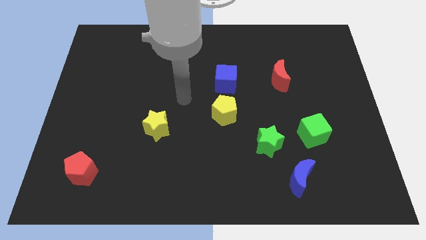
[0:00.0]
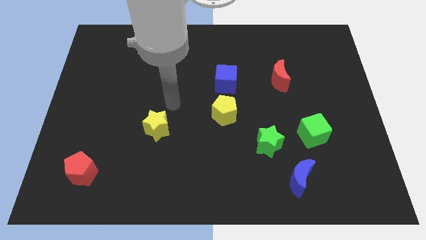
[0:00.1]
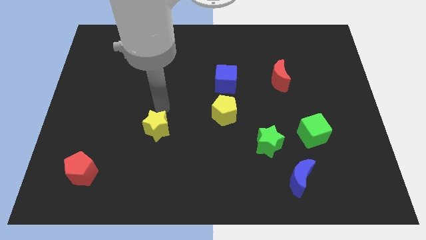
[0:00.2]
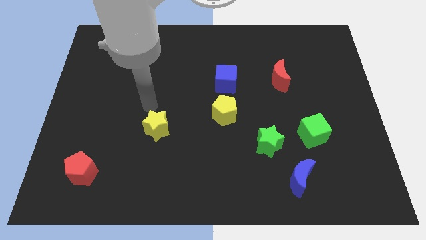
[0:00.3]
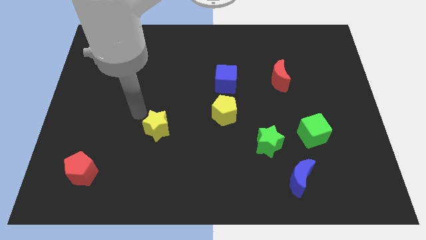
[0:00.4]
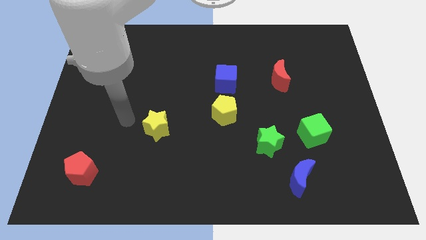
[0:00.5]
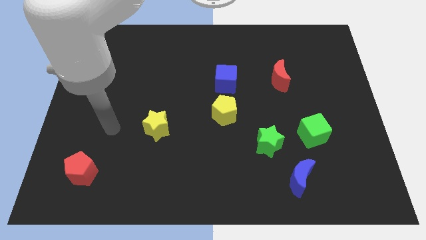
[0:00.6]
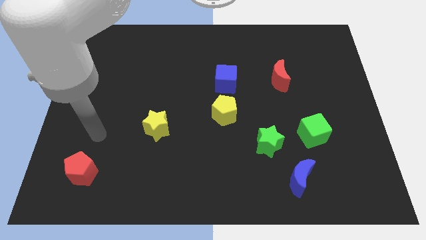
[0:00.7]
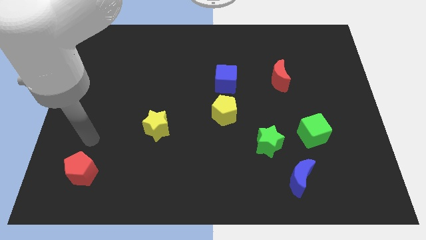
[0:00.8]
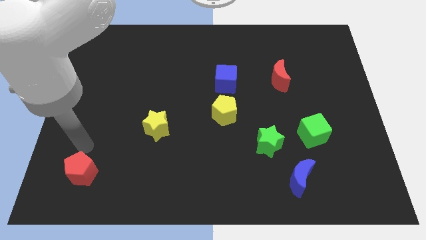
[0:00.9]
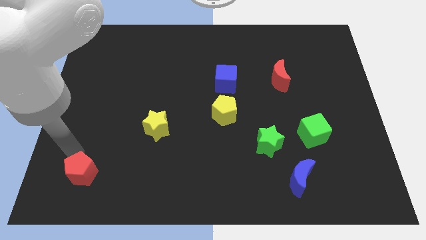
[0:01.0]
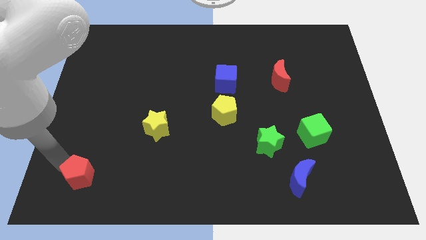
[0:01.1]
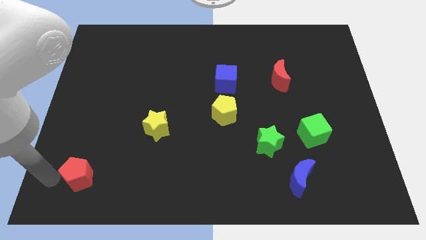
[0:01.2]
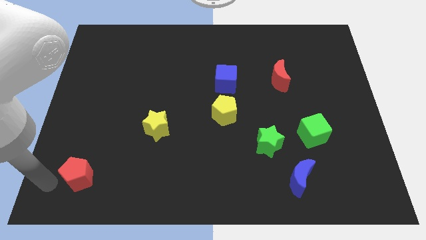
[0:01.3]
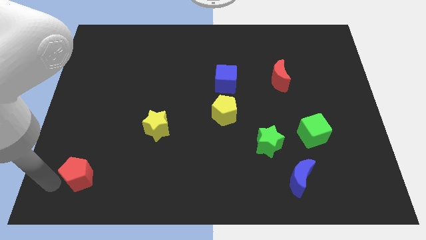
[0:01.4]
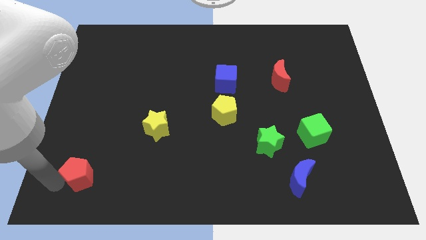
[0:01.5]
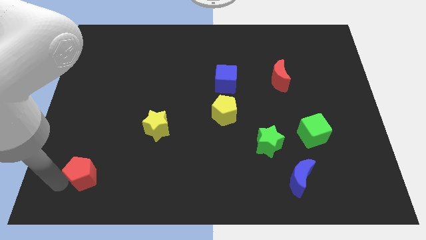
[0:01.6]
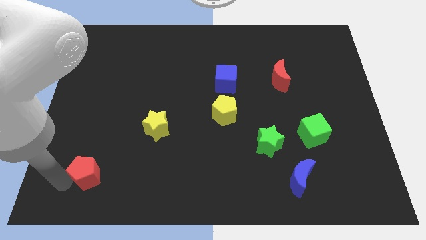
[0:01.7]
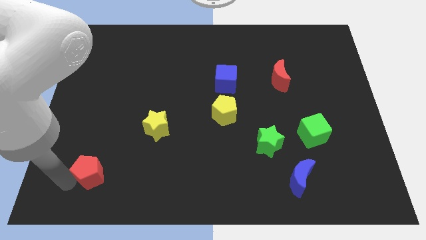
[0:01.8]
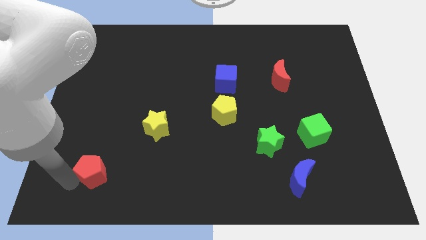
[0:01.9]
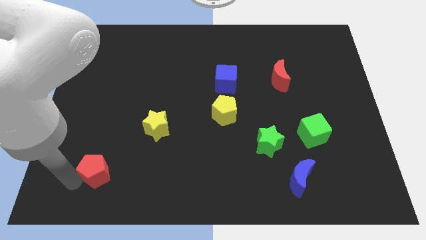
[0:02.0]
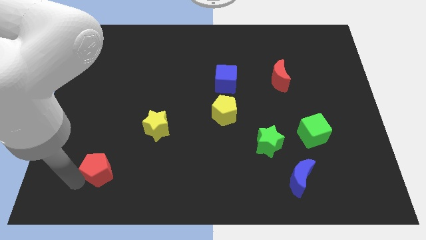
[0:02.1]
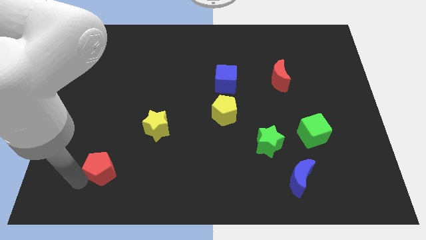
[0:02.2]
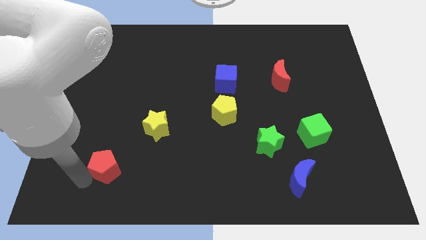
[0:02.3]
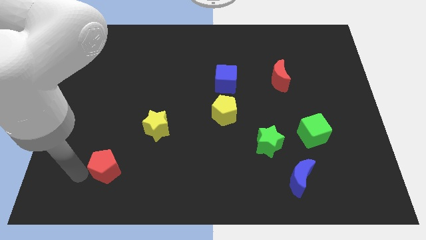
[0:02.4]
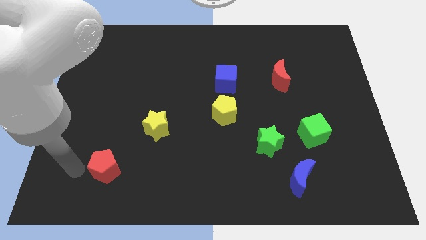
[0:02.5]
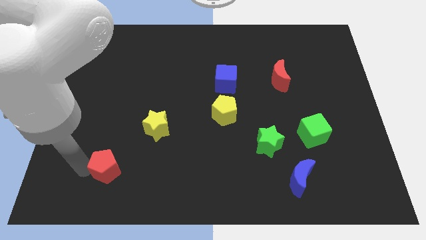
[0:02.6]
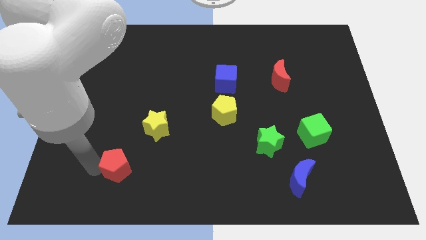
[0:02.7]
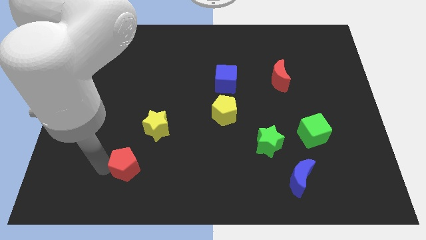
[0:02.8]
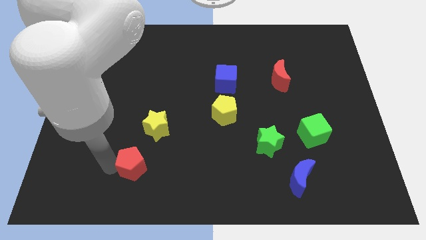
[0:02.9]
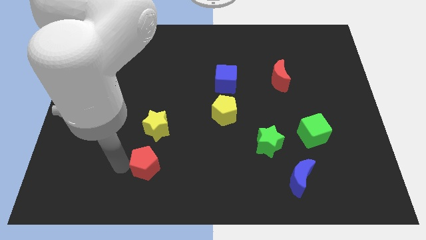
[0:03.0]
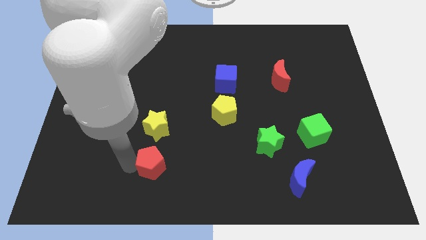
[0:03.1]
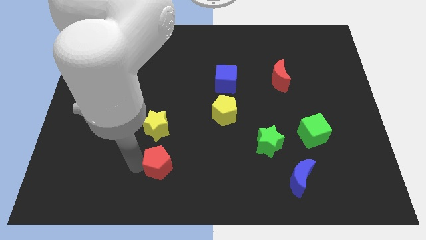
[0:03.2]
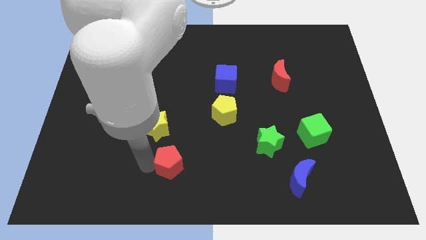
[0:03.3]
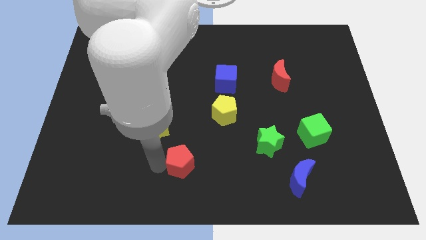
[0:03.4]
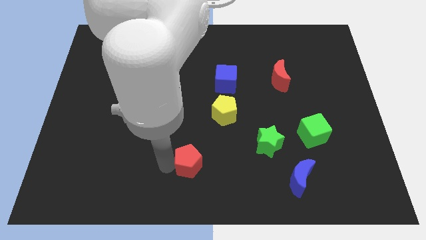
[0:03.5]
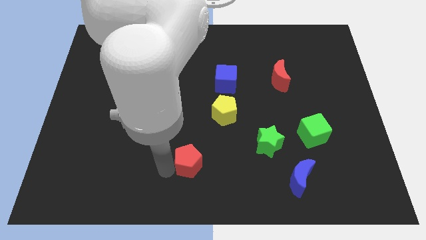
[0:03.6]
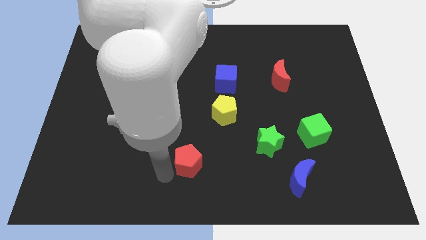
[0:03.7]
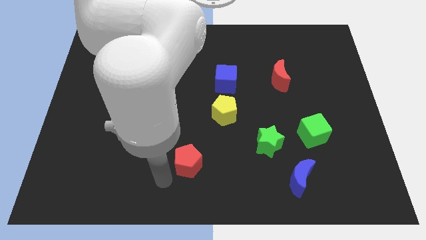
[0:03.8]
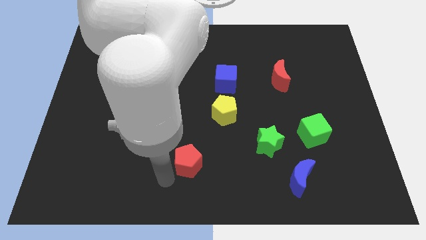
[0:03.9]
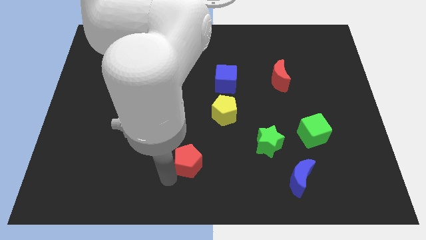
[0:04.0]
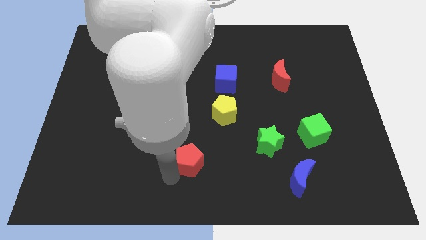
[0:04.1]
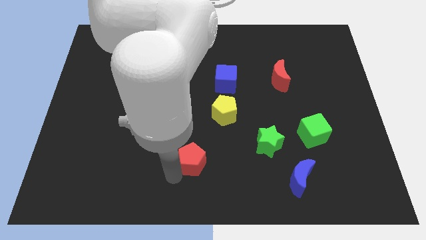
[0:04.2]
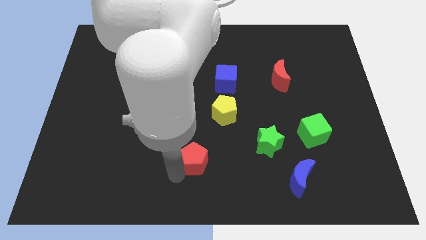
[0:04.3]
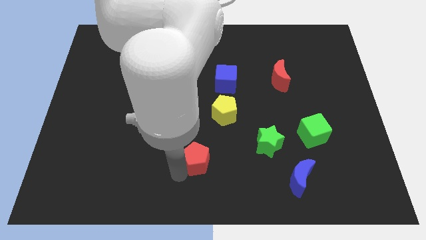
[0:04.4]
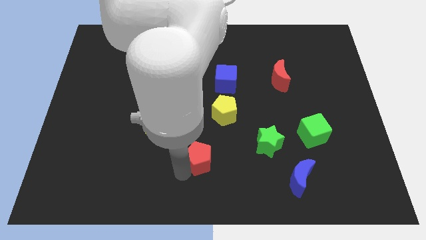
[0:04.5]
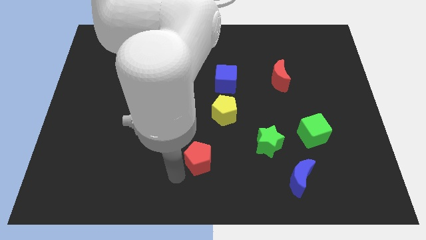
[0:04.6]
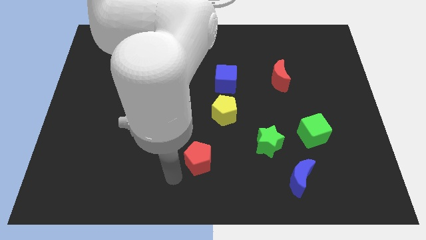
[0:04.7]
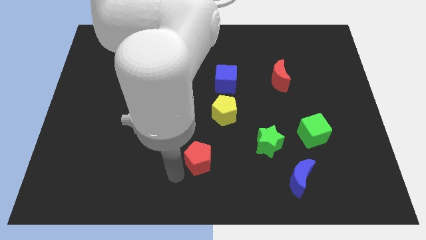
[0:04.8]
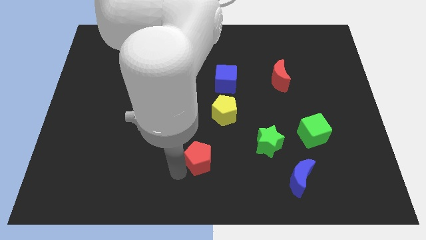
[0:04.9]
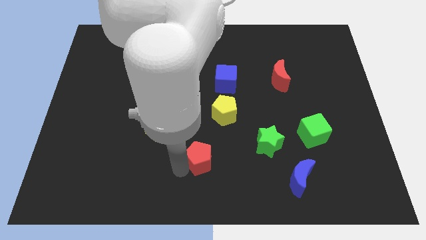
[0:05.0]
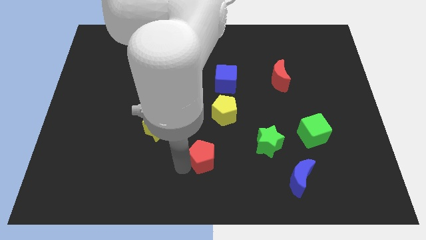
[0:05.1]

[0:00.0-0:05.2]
slide the red pentagon to the left of the green star

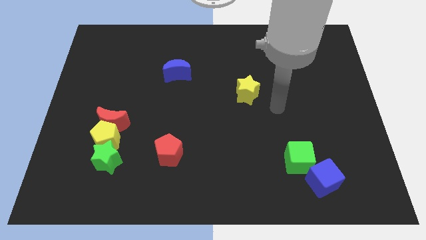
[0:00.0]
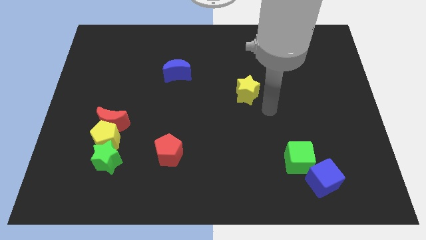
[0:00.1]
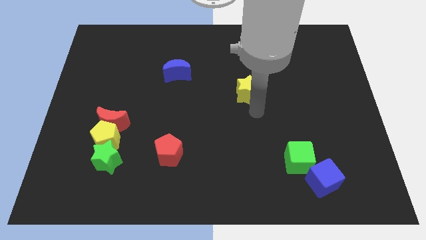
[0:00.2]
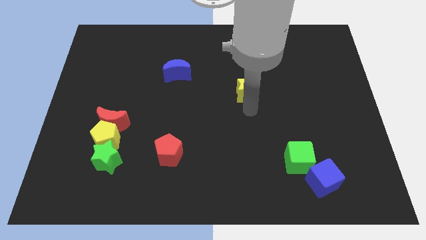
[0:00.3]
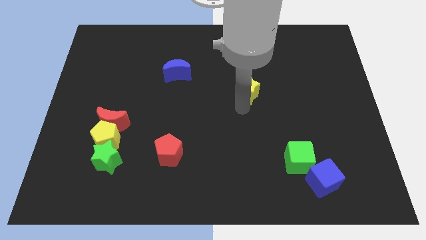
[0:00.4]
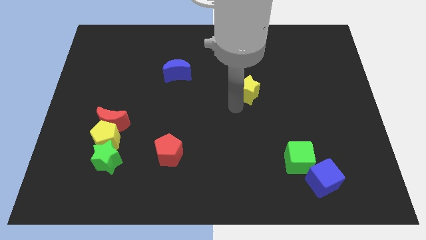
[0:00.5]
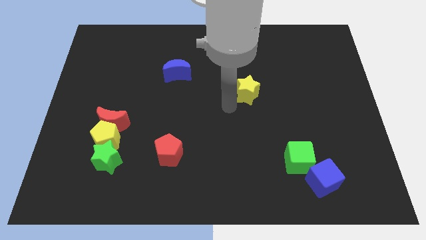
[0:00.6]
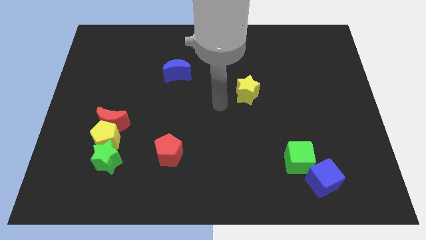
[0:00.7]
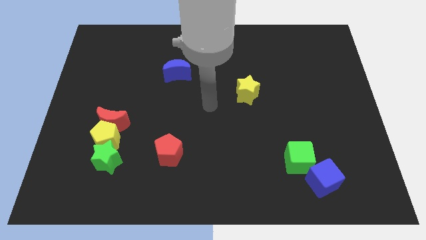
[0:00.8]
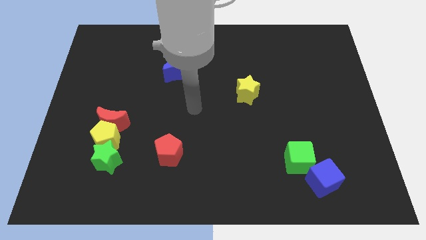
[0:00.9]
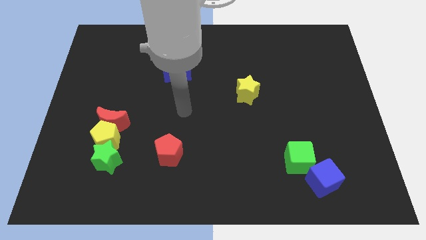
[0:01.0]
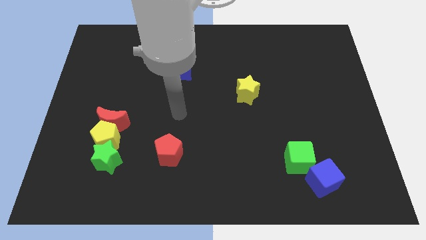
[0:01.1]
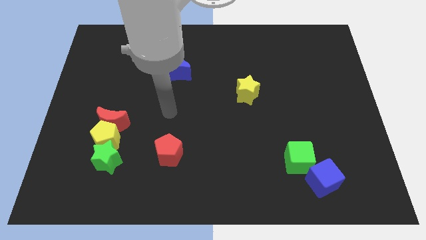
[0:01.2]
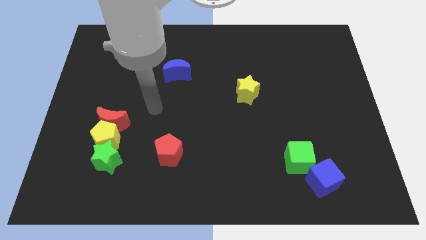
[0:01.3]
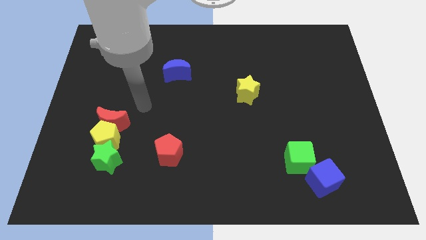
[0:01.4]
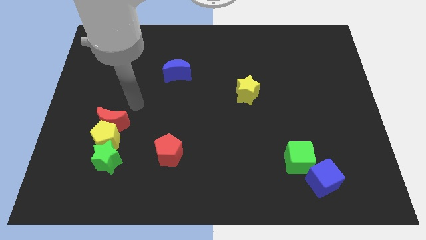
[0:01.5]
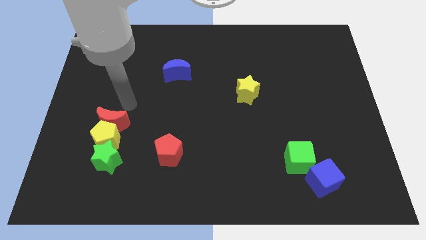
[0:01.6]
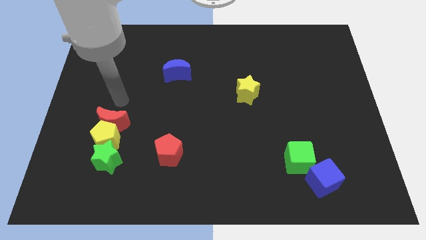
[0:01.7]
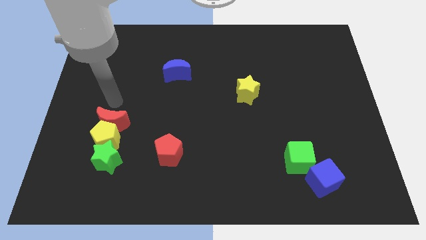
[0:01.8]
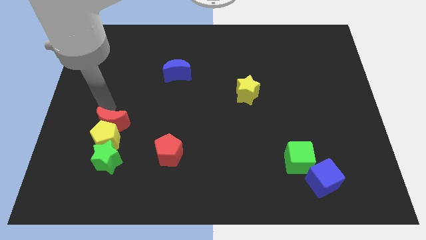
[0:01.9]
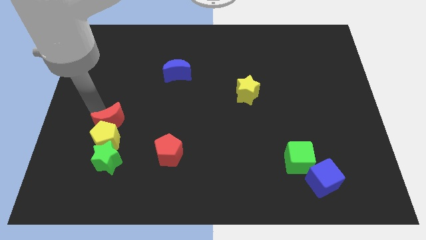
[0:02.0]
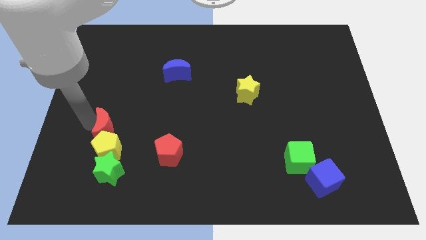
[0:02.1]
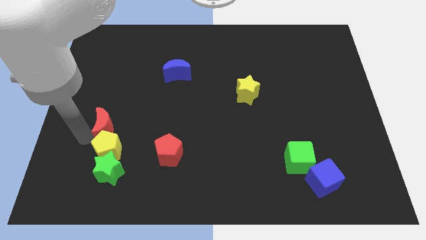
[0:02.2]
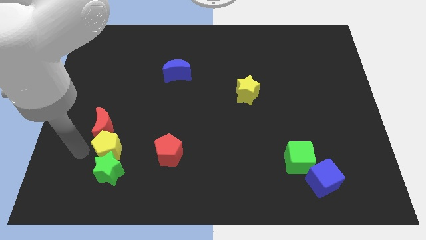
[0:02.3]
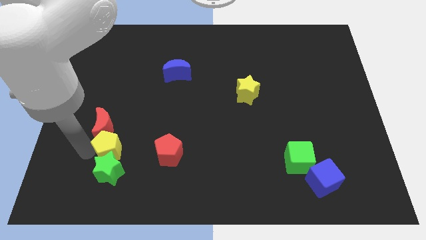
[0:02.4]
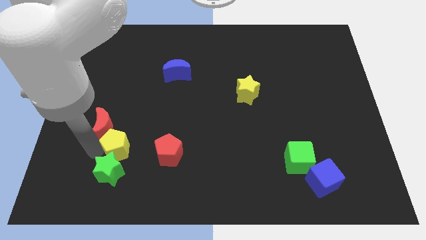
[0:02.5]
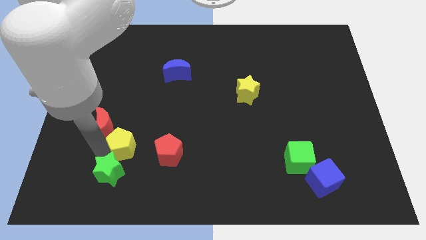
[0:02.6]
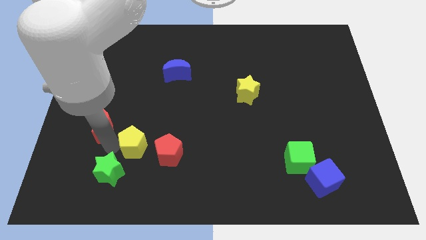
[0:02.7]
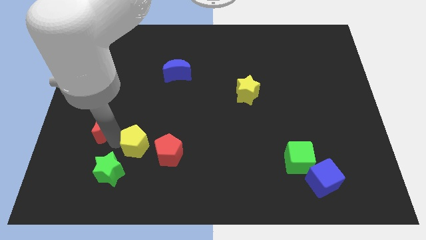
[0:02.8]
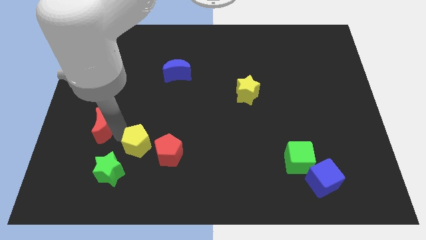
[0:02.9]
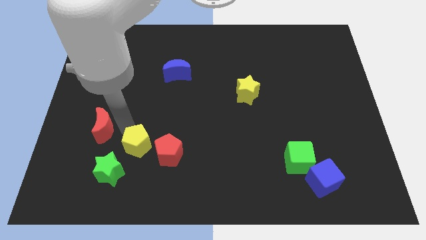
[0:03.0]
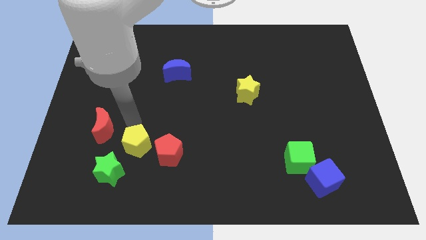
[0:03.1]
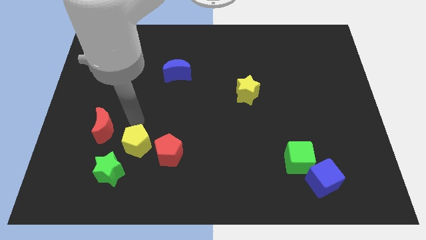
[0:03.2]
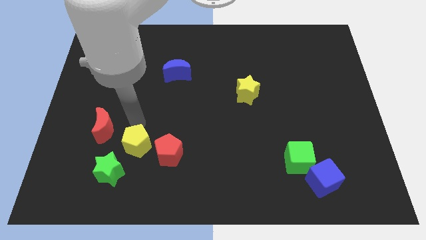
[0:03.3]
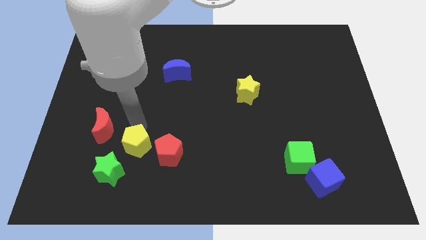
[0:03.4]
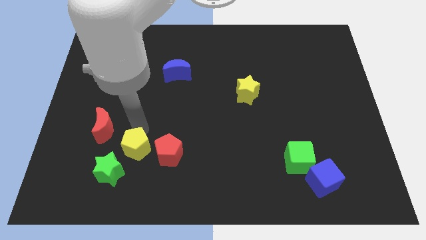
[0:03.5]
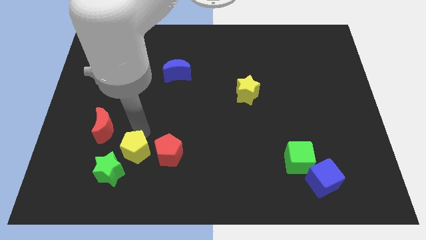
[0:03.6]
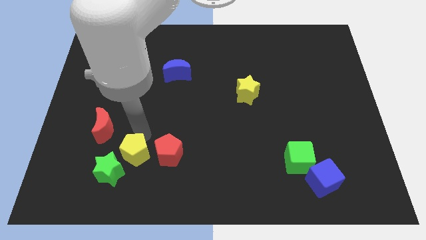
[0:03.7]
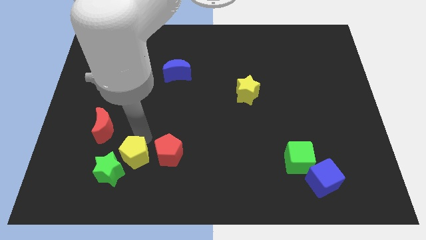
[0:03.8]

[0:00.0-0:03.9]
put the yellow pentagon to the bottom left side of the red pentagon

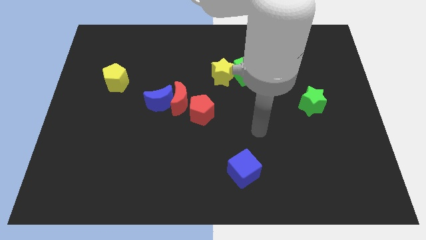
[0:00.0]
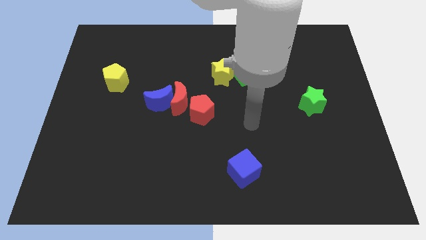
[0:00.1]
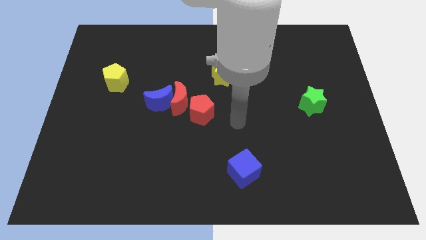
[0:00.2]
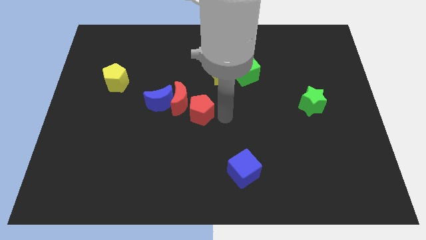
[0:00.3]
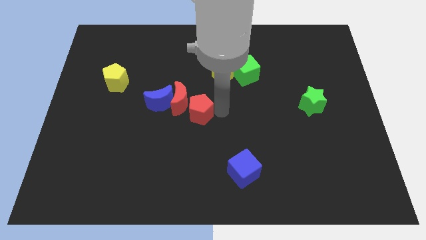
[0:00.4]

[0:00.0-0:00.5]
put the red pentagon to the bottom side of the red moon
